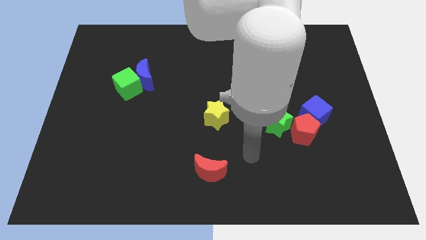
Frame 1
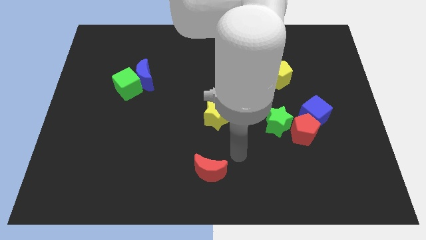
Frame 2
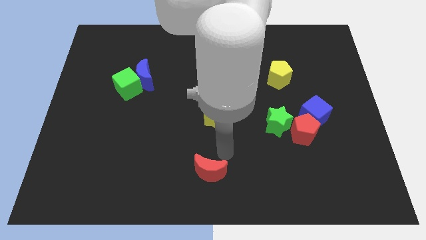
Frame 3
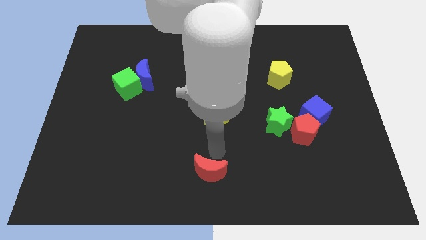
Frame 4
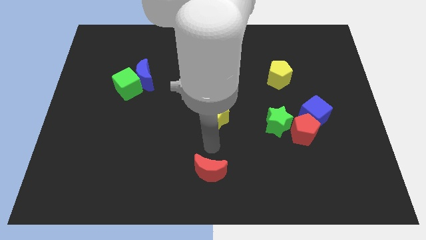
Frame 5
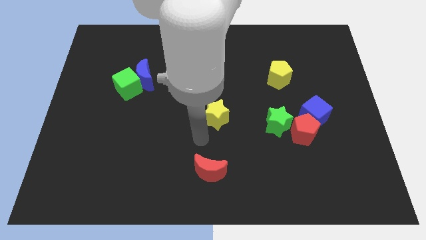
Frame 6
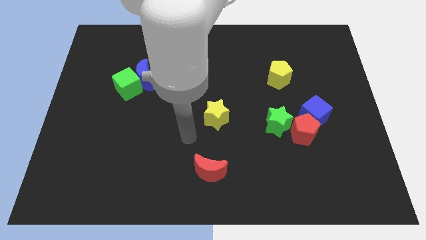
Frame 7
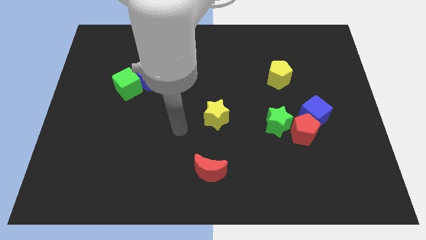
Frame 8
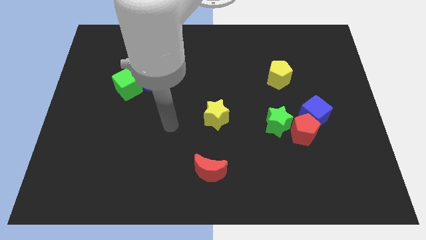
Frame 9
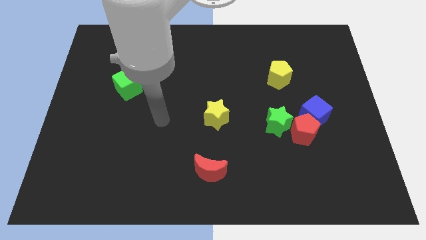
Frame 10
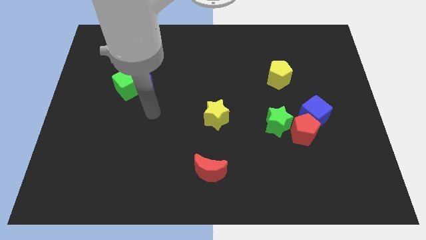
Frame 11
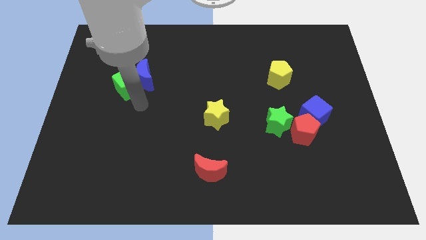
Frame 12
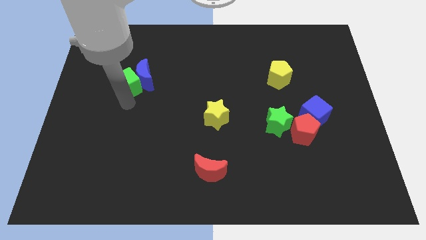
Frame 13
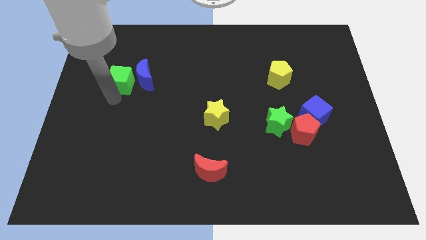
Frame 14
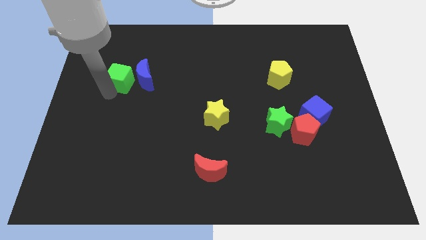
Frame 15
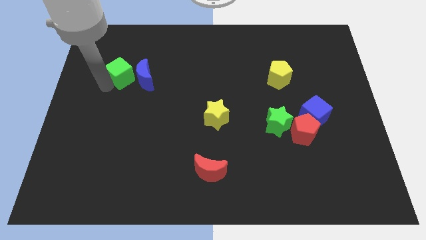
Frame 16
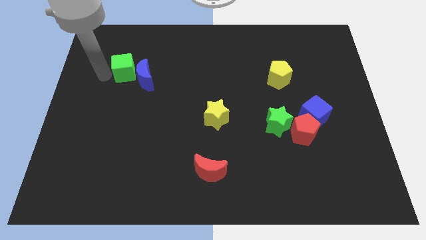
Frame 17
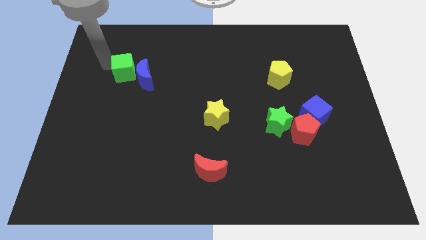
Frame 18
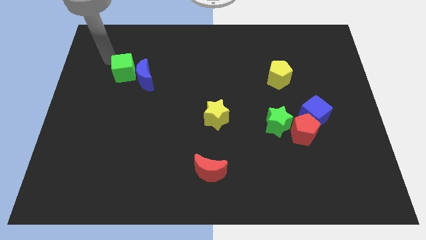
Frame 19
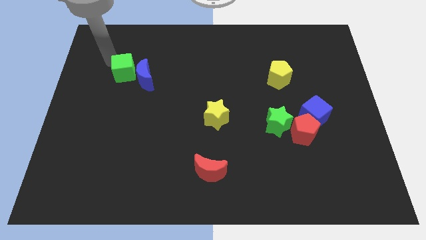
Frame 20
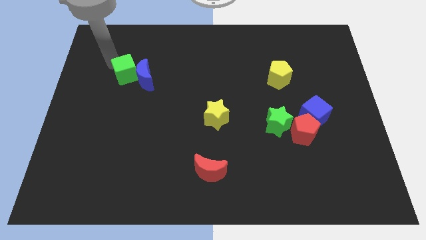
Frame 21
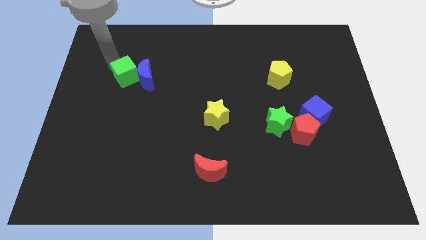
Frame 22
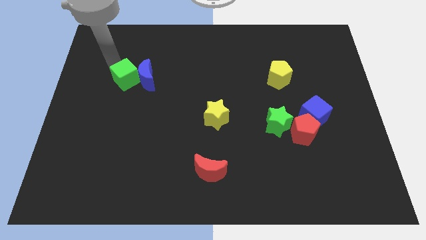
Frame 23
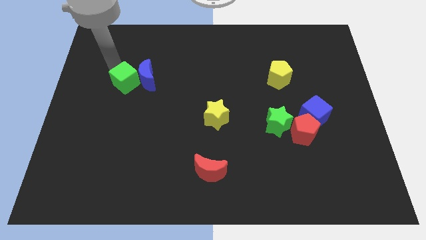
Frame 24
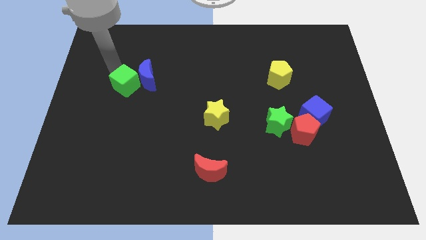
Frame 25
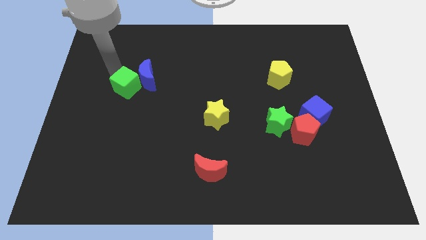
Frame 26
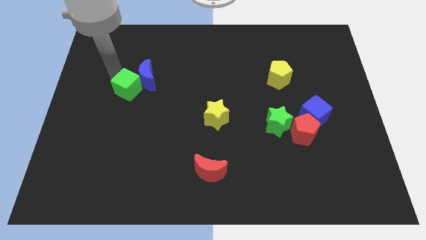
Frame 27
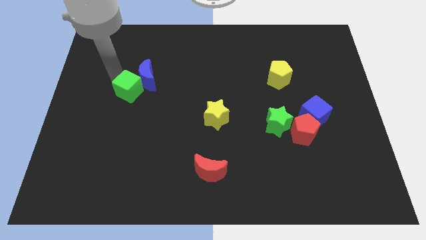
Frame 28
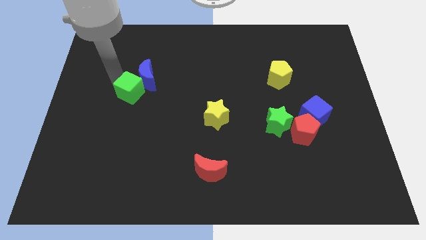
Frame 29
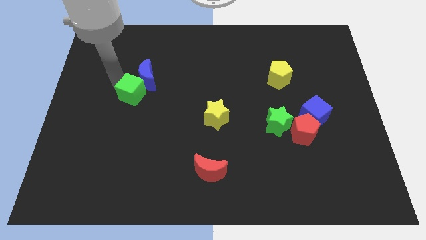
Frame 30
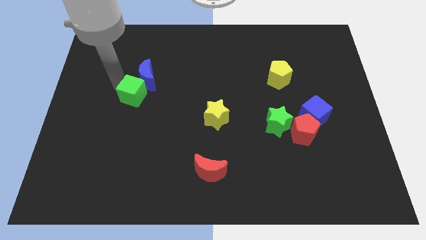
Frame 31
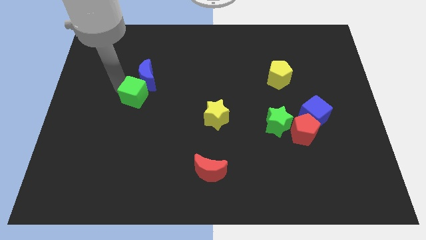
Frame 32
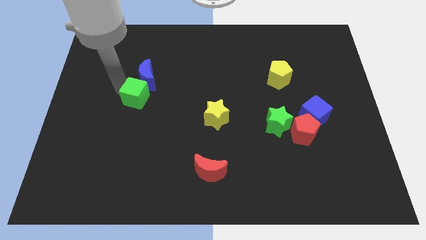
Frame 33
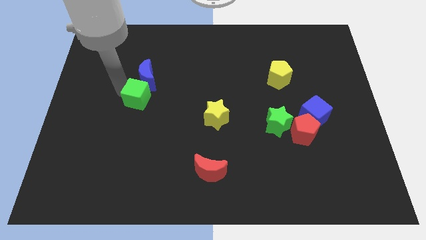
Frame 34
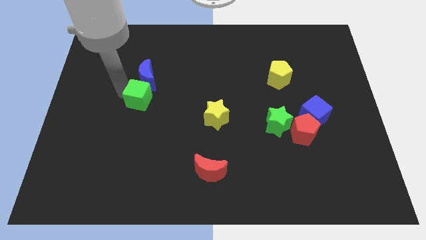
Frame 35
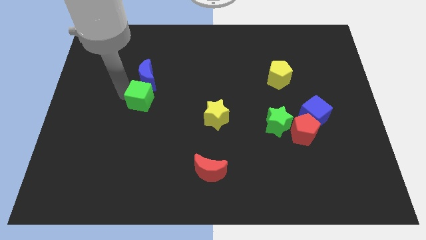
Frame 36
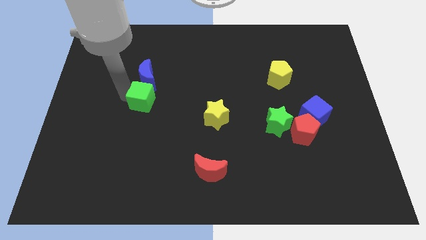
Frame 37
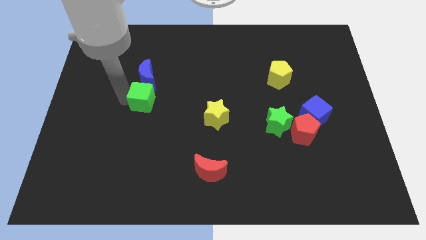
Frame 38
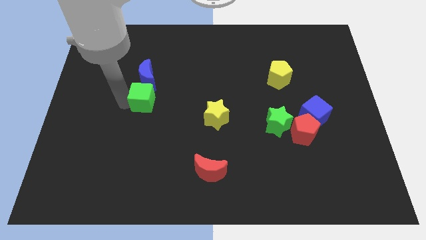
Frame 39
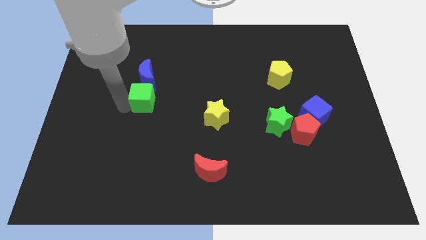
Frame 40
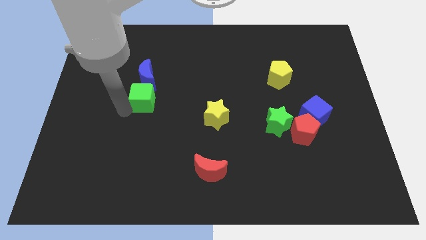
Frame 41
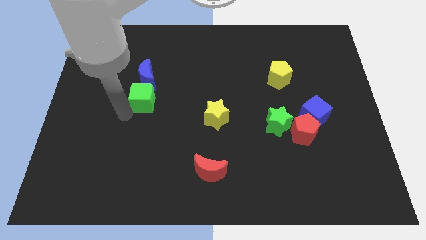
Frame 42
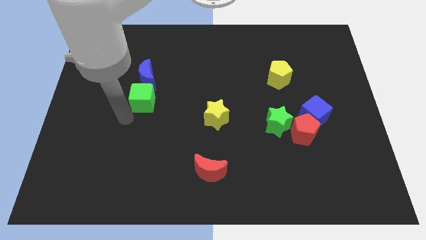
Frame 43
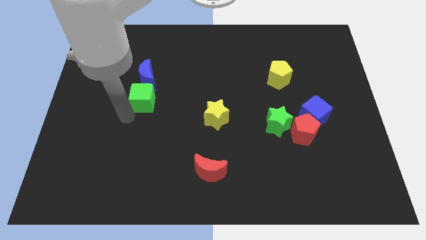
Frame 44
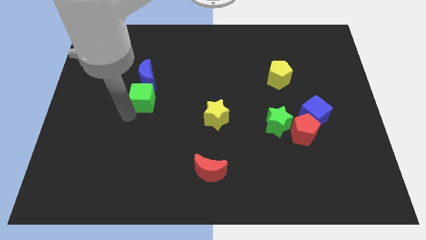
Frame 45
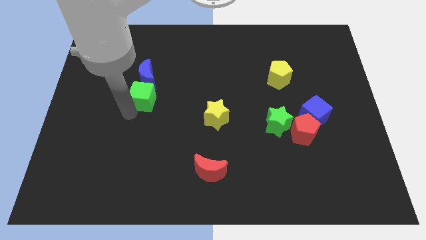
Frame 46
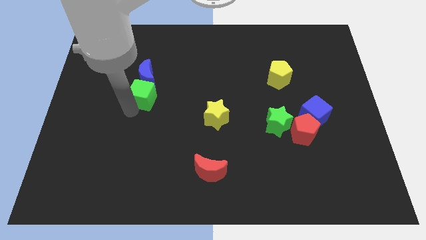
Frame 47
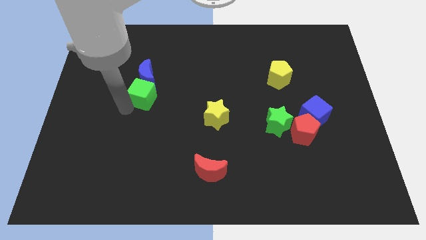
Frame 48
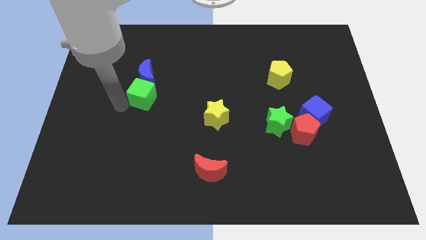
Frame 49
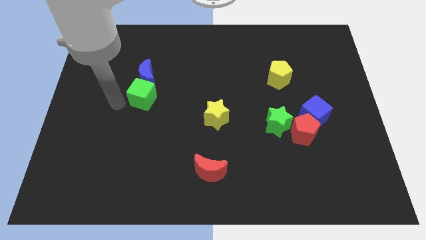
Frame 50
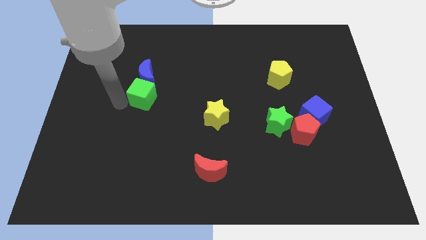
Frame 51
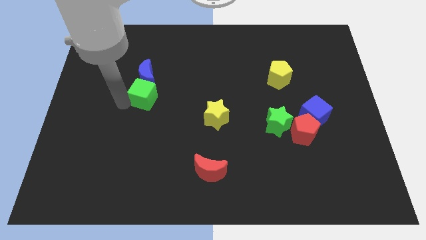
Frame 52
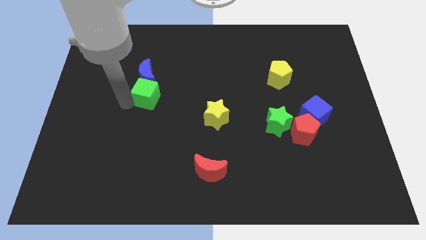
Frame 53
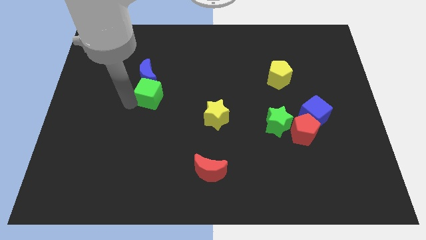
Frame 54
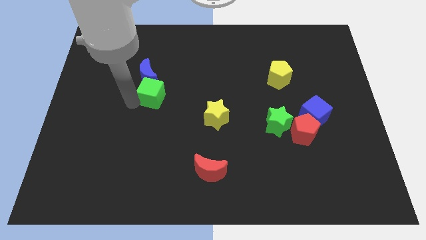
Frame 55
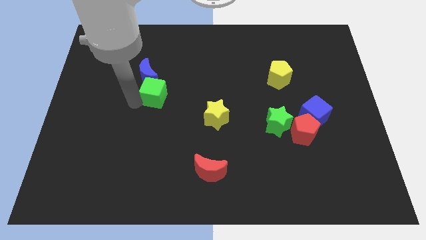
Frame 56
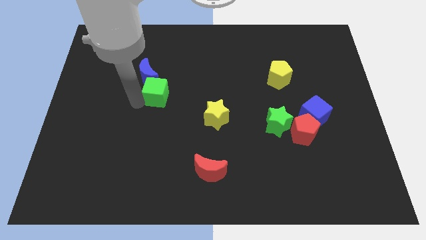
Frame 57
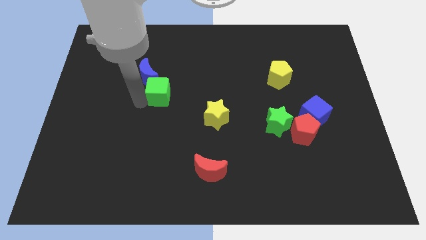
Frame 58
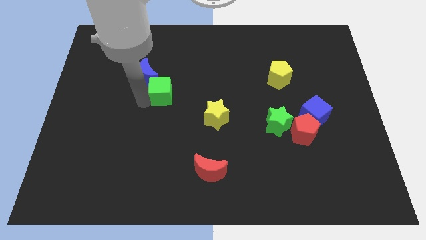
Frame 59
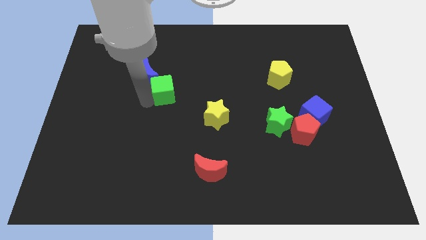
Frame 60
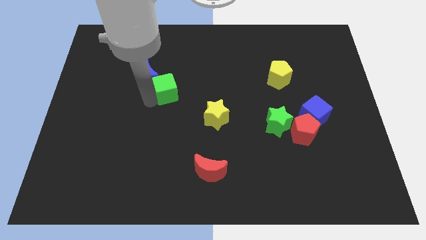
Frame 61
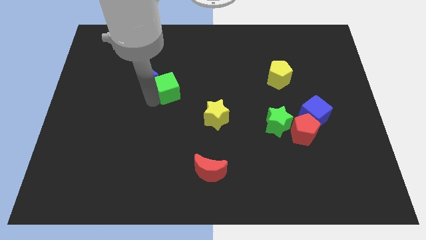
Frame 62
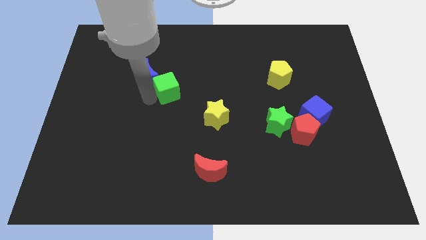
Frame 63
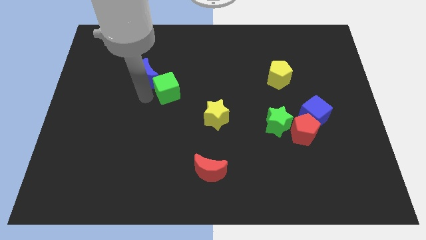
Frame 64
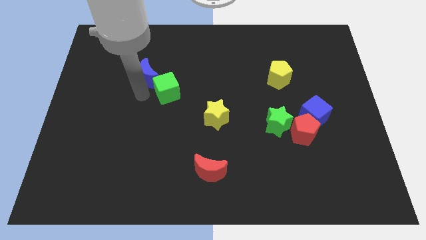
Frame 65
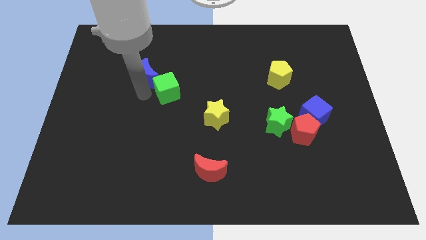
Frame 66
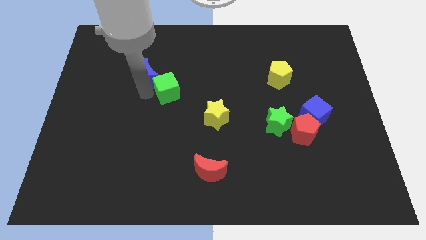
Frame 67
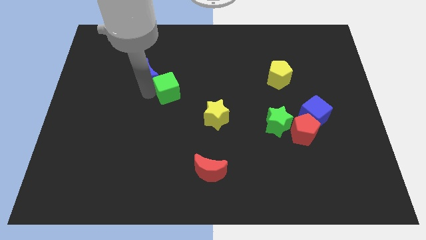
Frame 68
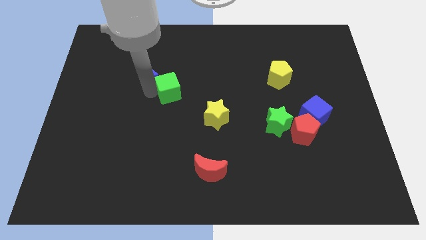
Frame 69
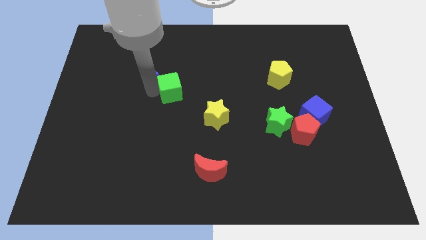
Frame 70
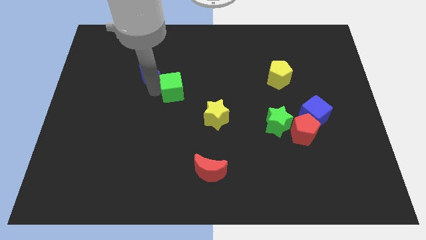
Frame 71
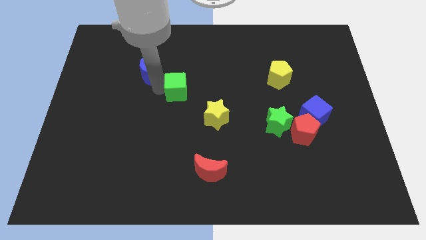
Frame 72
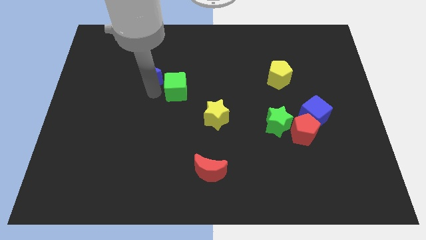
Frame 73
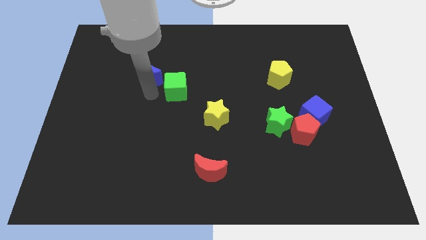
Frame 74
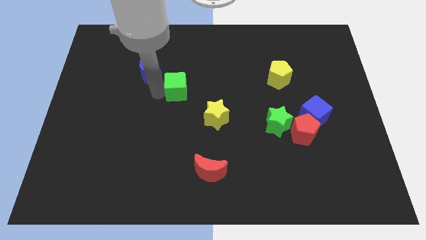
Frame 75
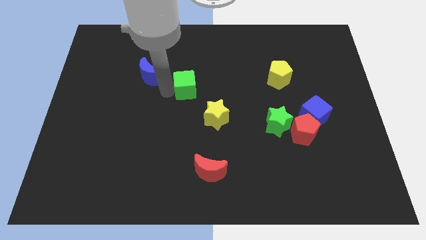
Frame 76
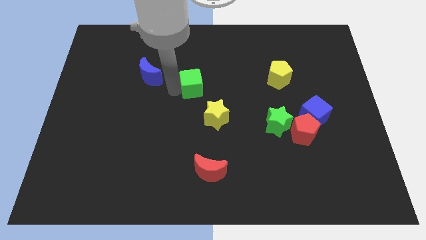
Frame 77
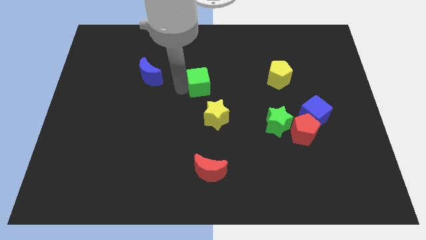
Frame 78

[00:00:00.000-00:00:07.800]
put the green cube to the top of the yellow star
